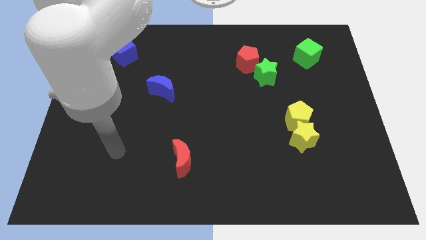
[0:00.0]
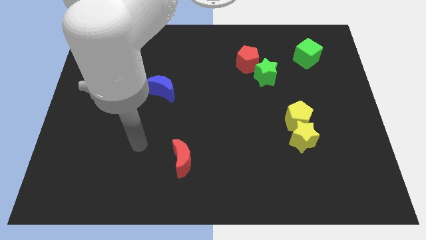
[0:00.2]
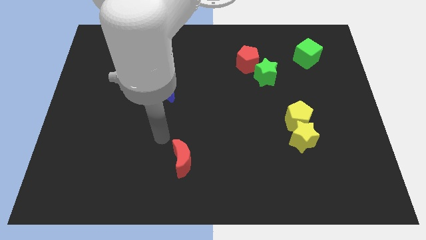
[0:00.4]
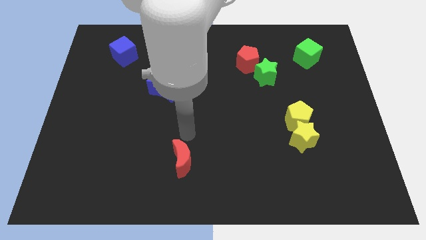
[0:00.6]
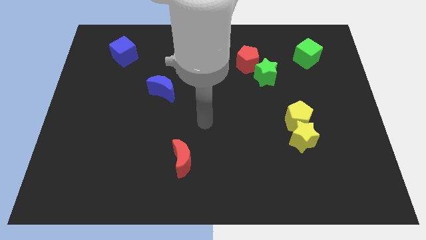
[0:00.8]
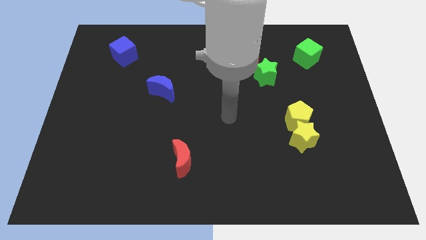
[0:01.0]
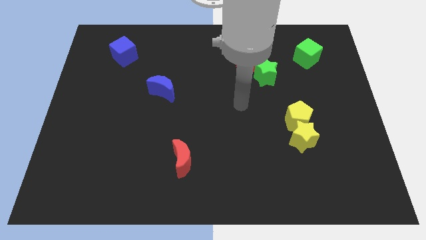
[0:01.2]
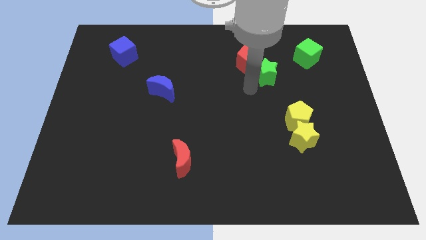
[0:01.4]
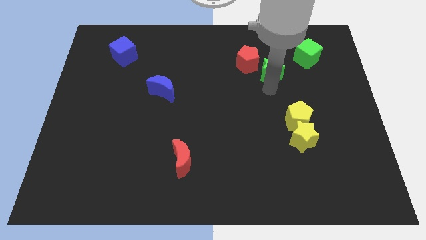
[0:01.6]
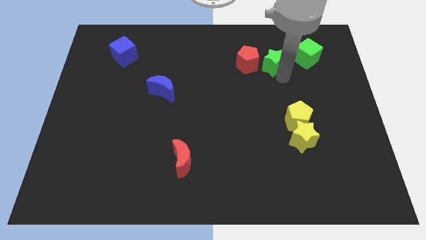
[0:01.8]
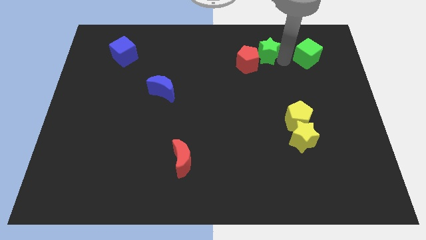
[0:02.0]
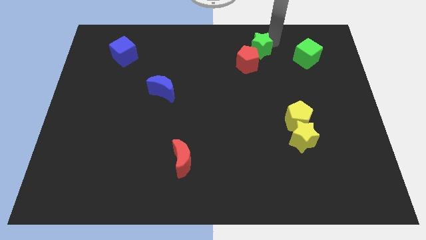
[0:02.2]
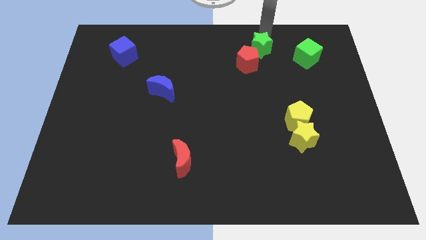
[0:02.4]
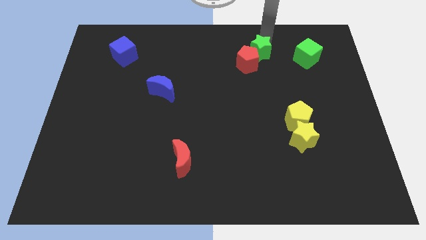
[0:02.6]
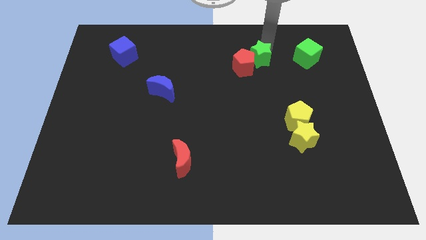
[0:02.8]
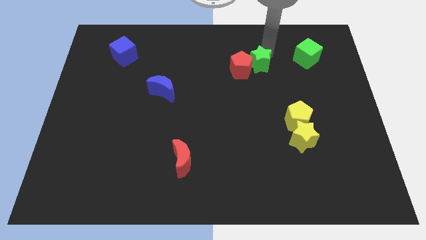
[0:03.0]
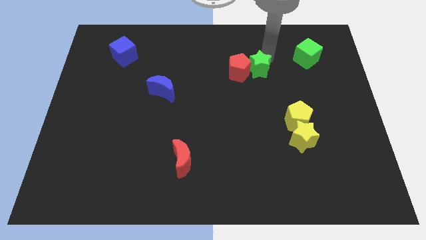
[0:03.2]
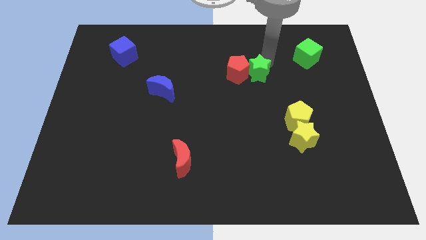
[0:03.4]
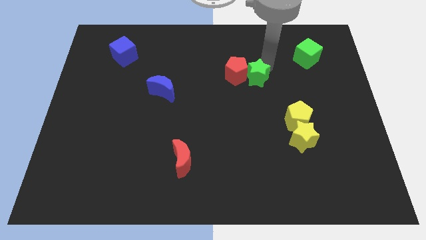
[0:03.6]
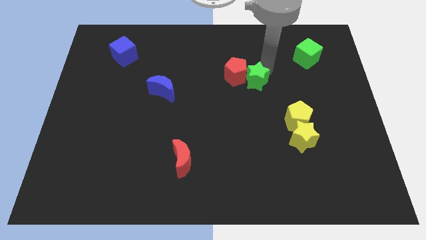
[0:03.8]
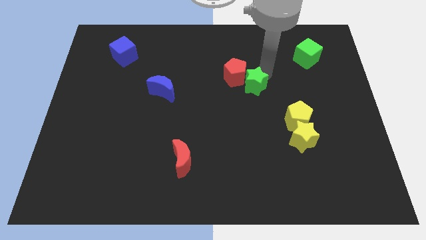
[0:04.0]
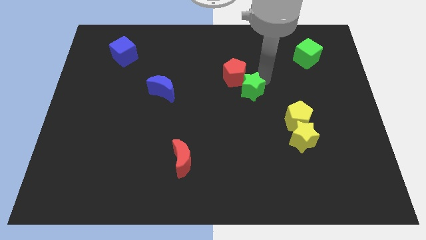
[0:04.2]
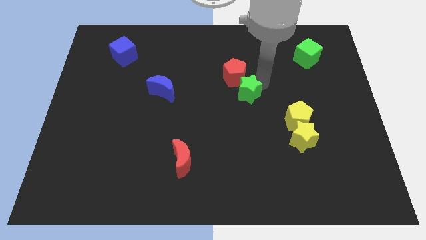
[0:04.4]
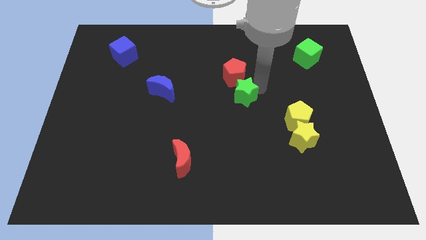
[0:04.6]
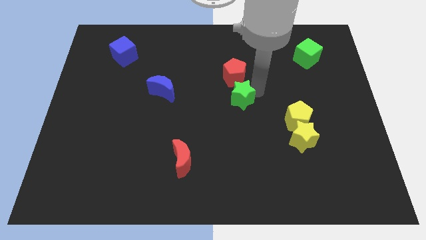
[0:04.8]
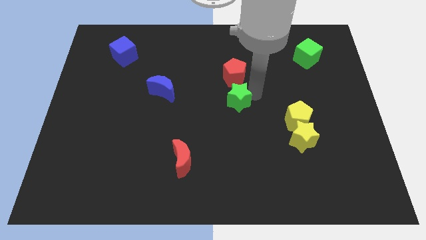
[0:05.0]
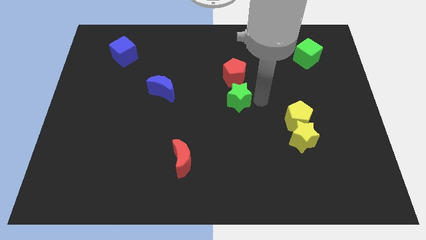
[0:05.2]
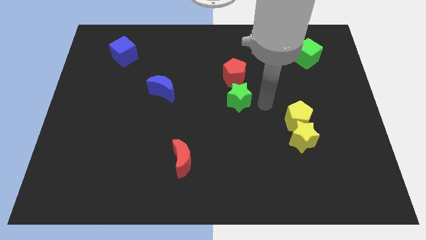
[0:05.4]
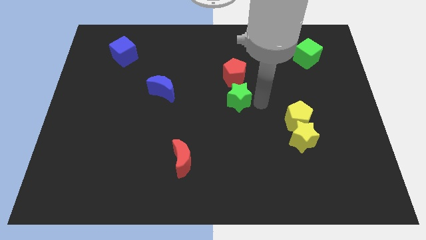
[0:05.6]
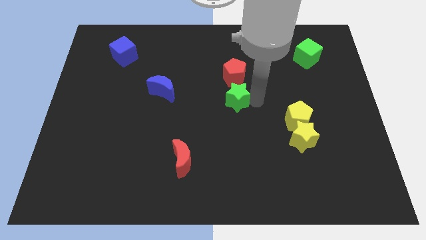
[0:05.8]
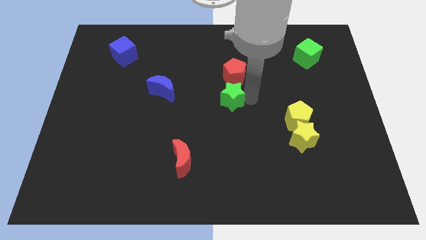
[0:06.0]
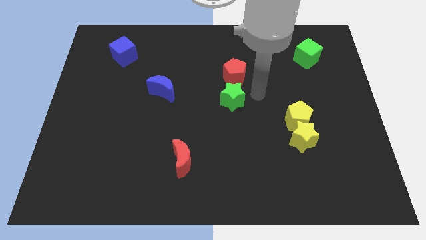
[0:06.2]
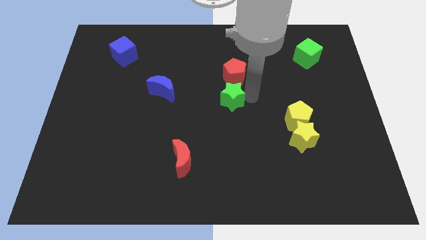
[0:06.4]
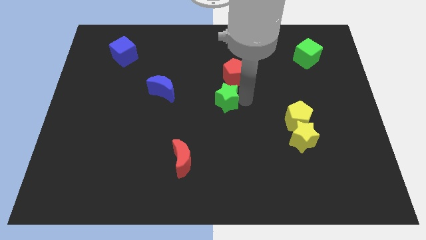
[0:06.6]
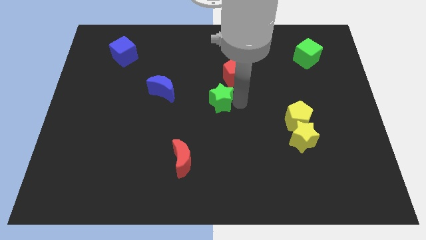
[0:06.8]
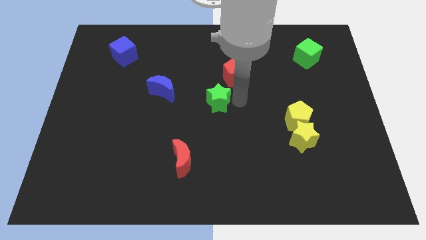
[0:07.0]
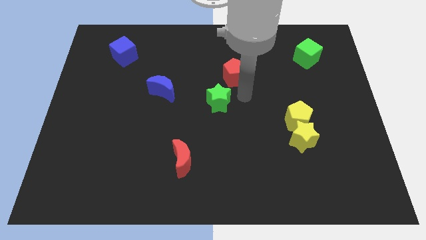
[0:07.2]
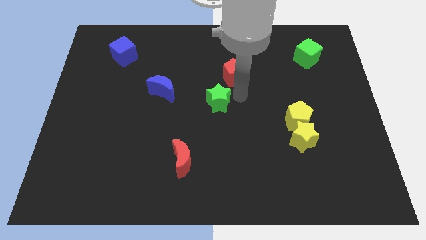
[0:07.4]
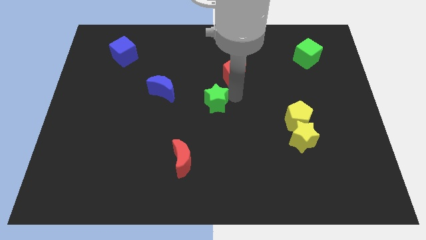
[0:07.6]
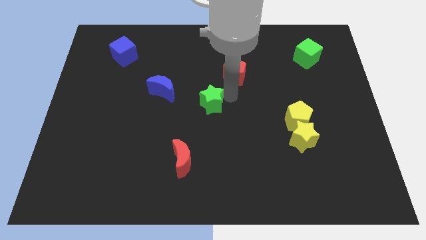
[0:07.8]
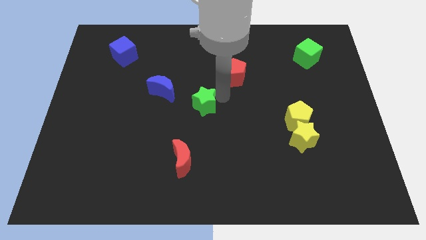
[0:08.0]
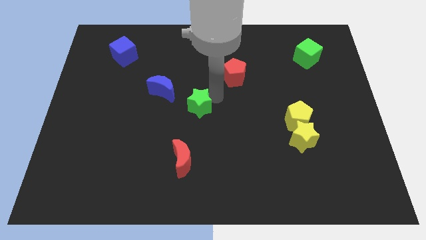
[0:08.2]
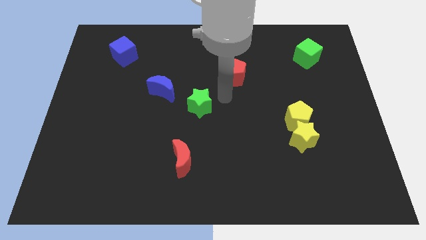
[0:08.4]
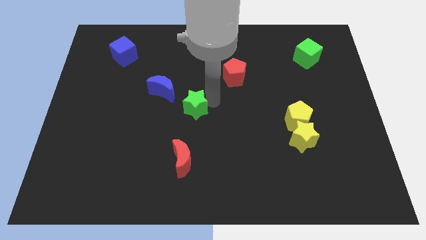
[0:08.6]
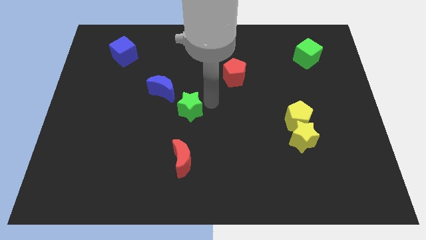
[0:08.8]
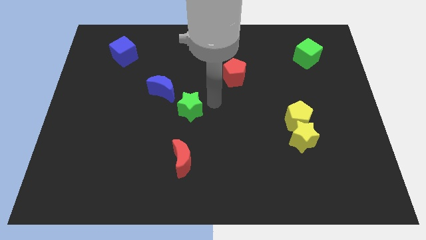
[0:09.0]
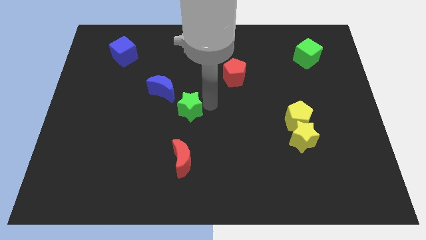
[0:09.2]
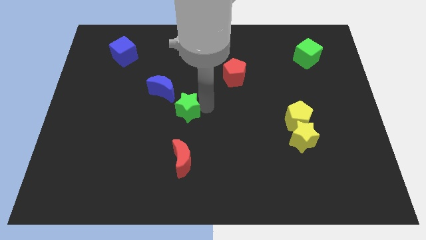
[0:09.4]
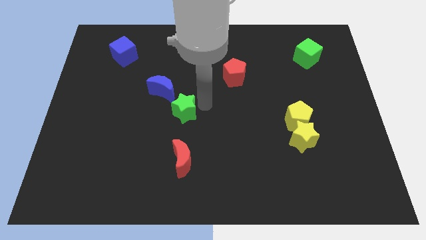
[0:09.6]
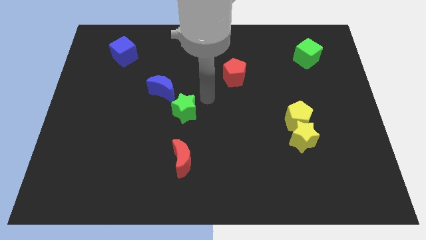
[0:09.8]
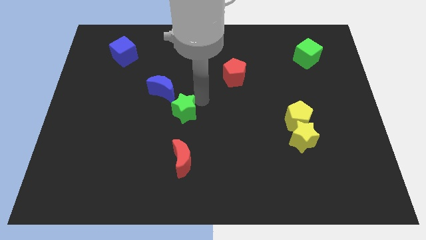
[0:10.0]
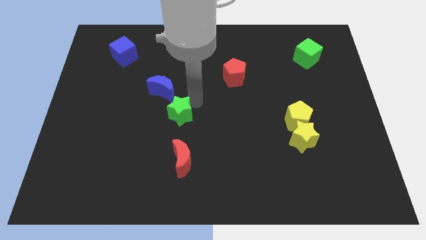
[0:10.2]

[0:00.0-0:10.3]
push the green star below the blue moon

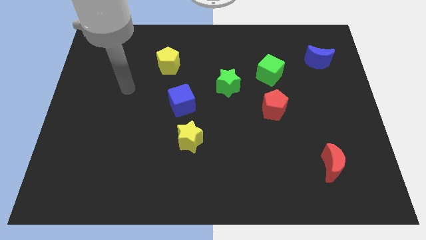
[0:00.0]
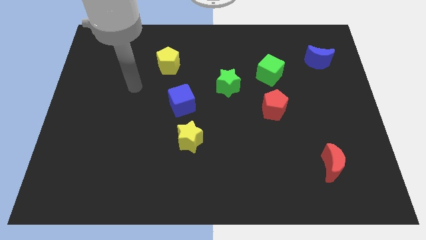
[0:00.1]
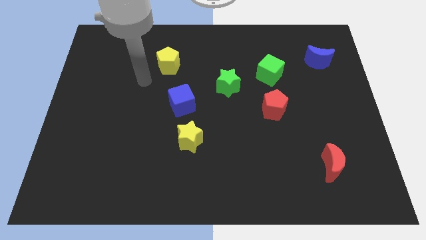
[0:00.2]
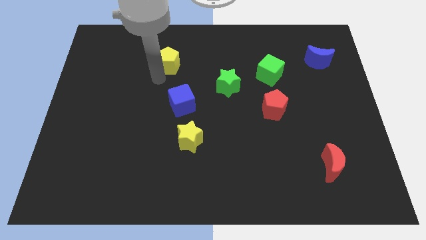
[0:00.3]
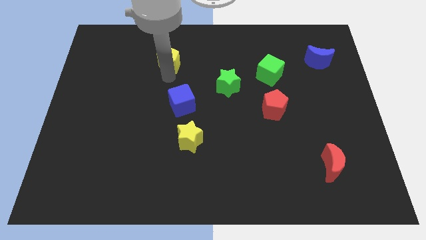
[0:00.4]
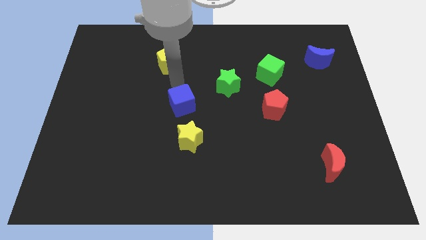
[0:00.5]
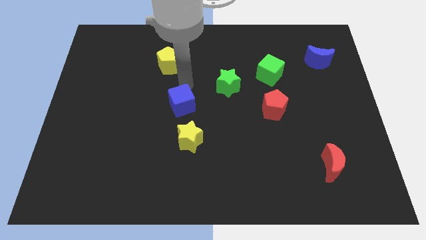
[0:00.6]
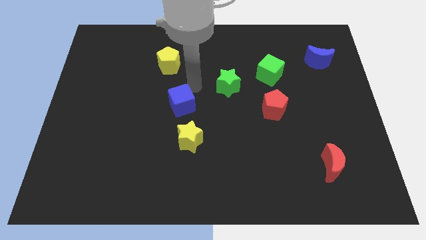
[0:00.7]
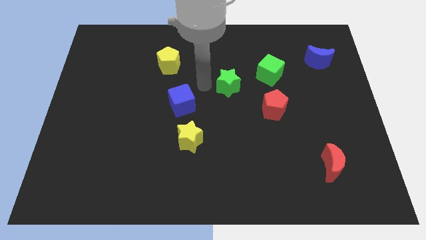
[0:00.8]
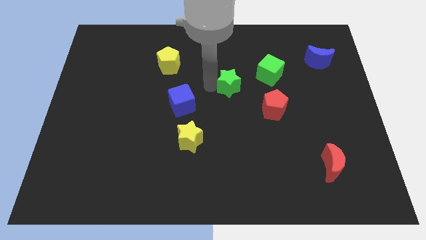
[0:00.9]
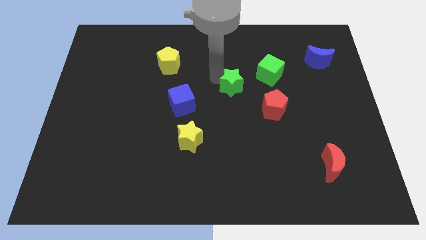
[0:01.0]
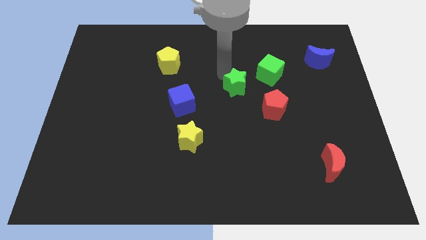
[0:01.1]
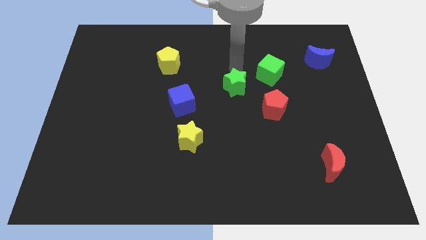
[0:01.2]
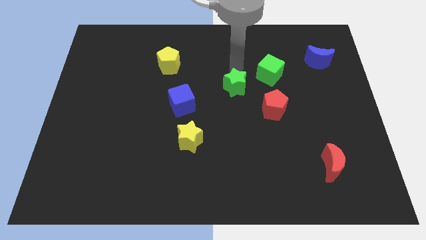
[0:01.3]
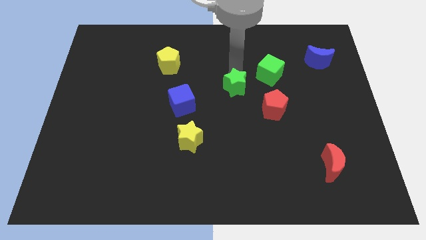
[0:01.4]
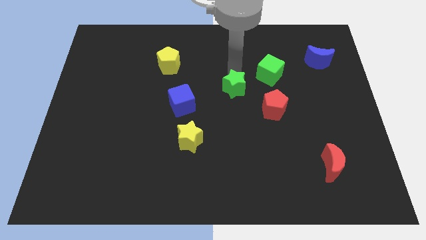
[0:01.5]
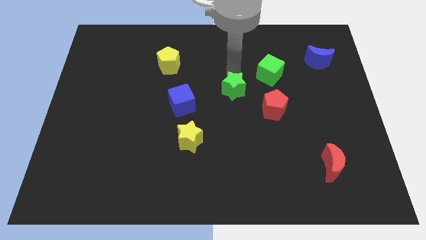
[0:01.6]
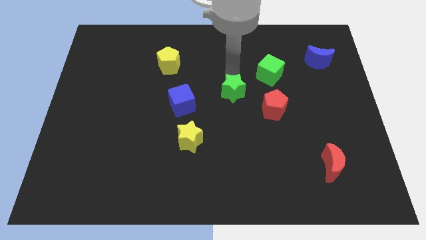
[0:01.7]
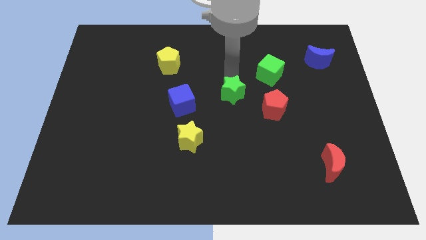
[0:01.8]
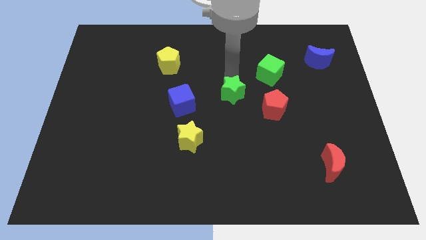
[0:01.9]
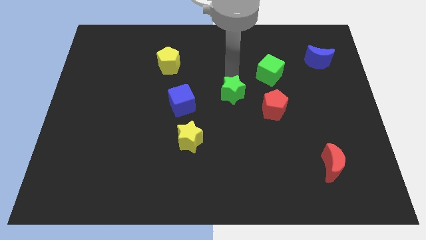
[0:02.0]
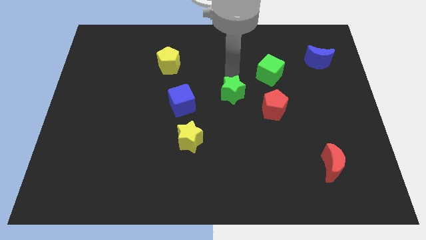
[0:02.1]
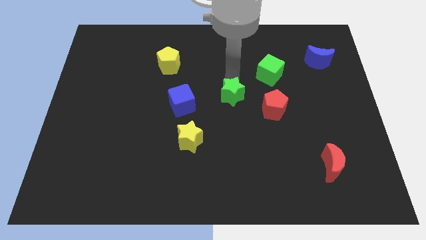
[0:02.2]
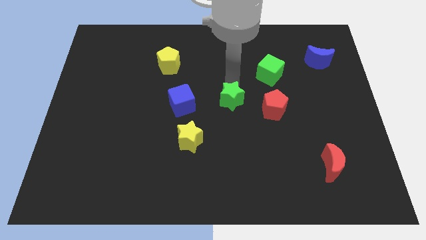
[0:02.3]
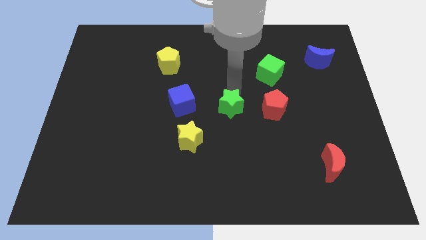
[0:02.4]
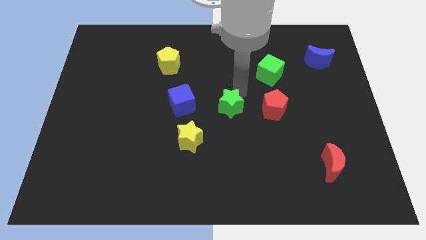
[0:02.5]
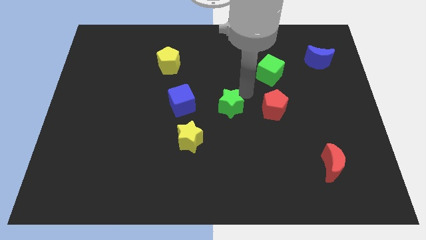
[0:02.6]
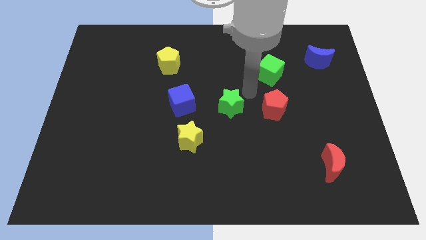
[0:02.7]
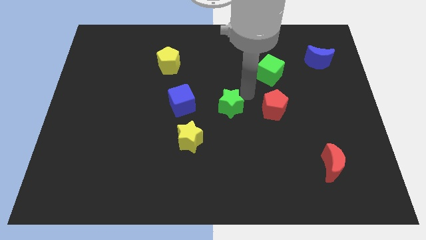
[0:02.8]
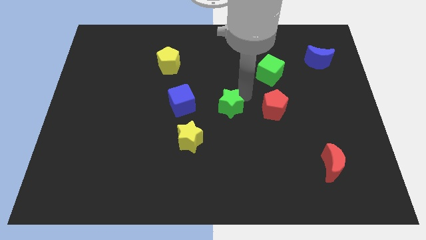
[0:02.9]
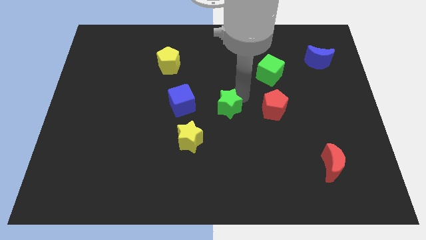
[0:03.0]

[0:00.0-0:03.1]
move the green star to the top right side of the yellow star
